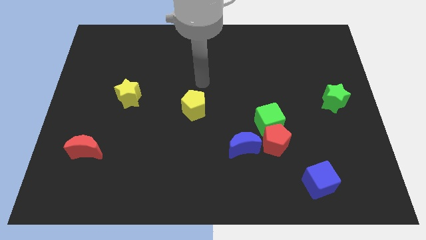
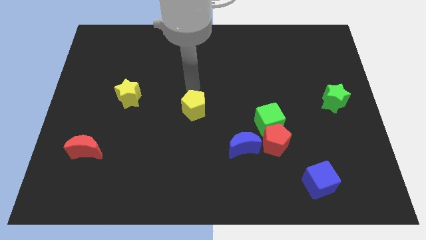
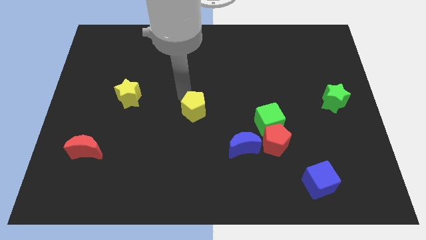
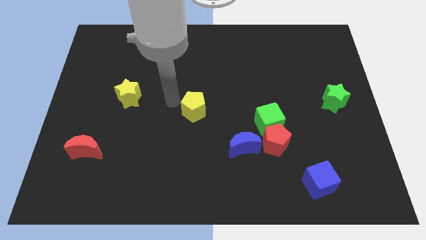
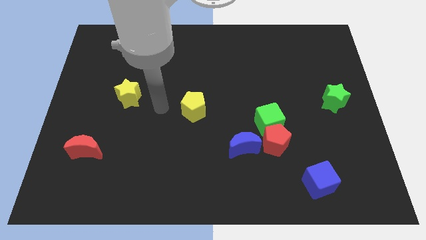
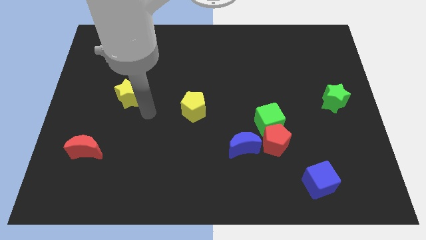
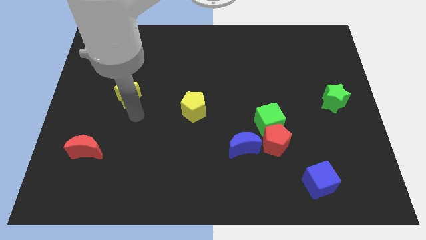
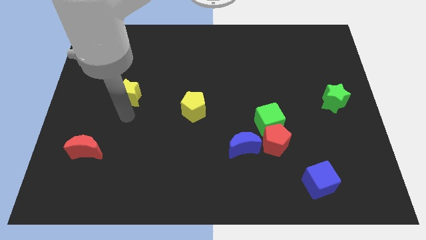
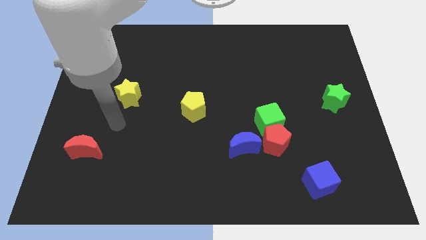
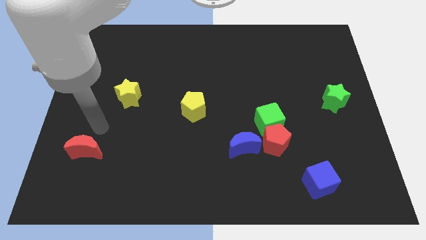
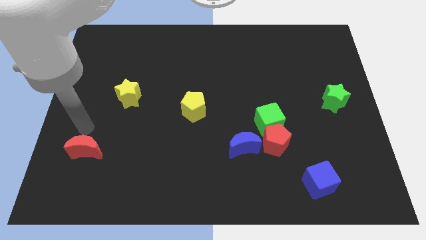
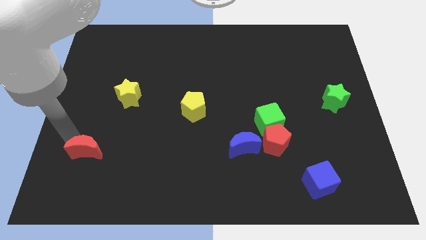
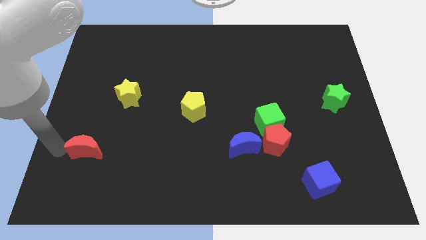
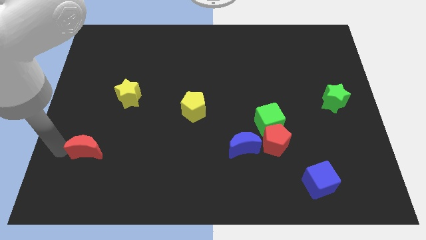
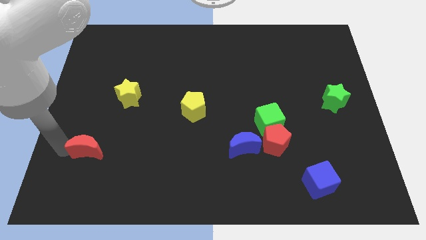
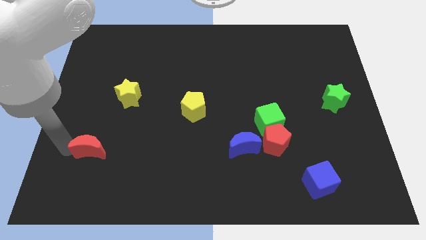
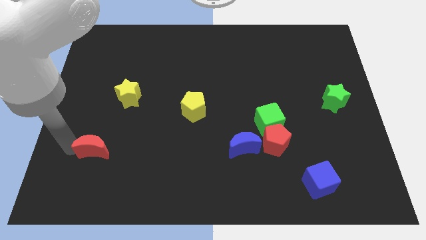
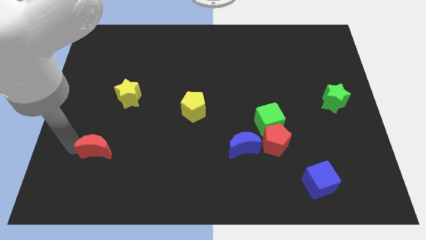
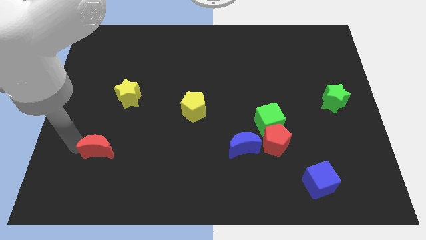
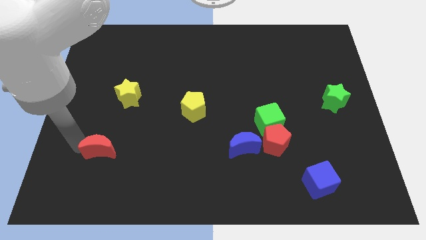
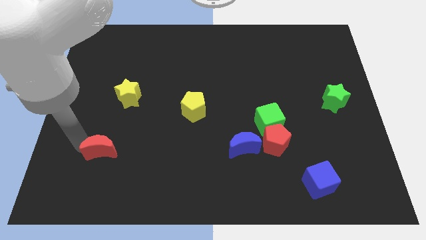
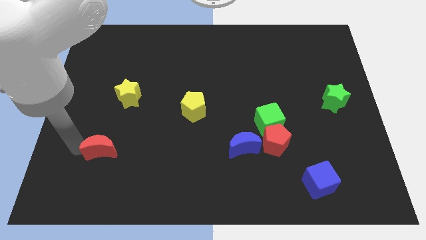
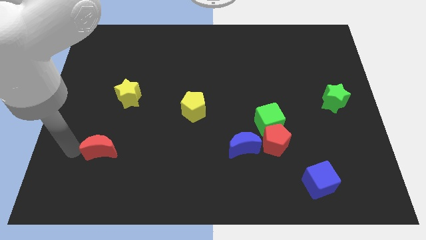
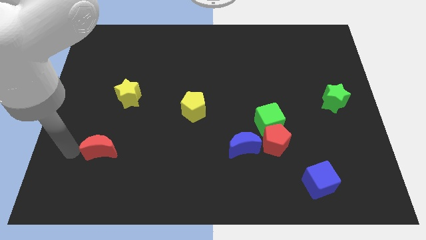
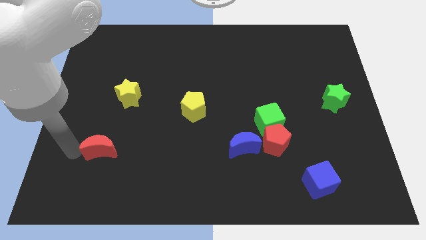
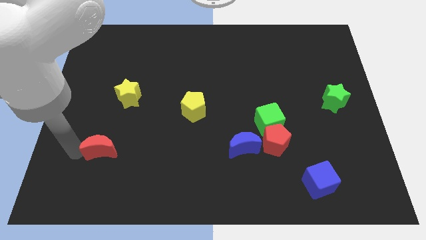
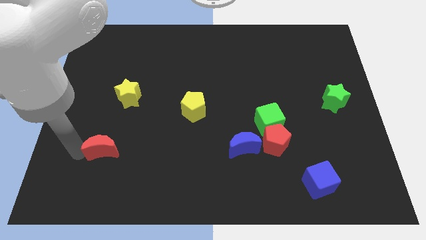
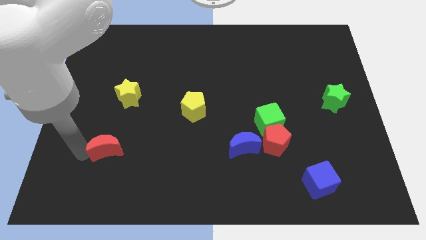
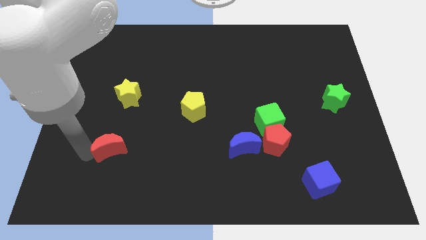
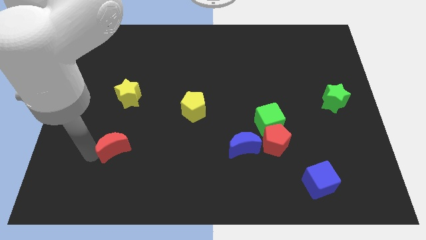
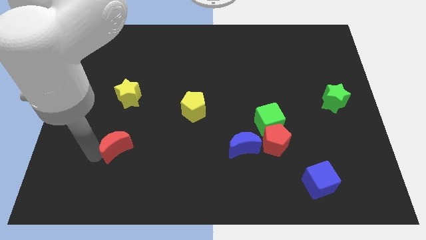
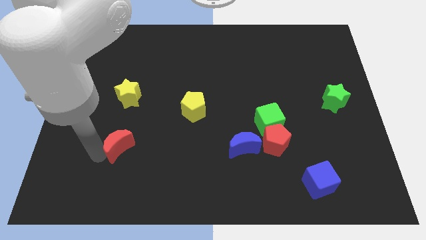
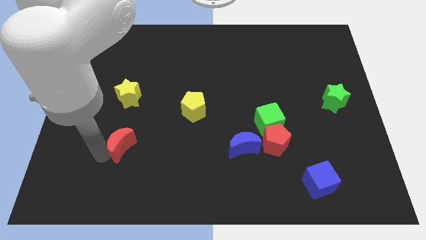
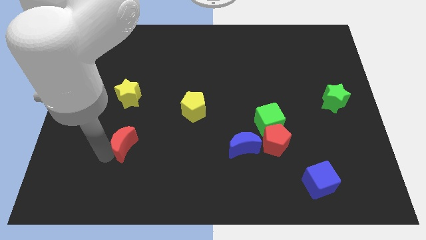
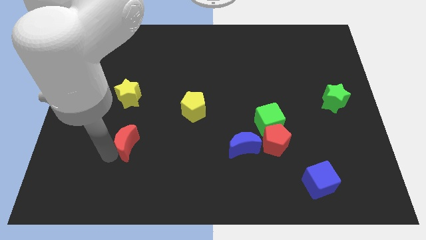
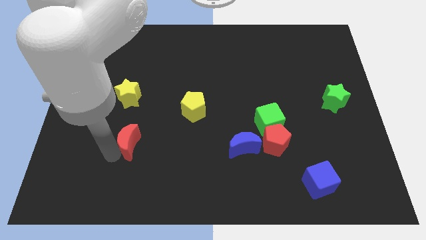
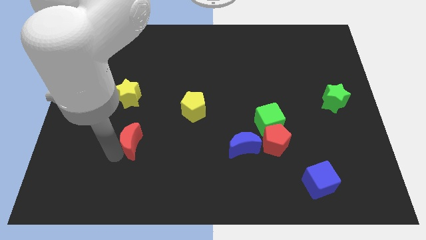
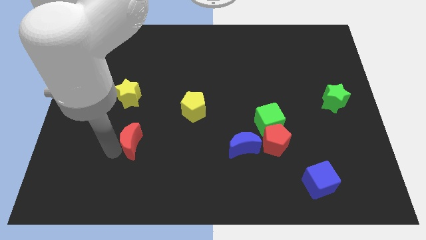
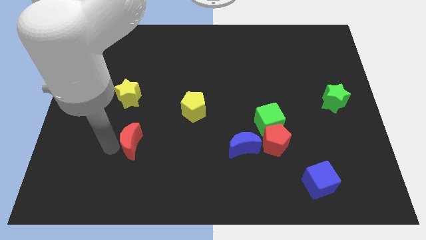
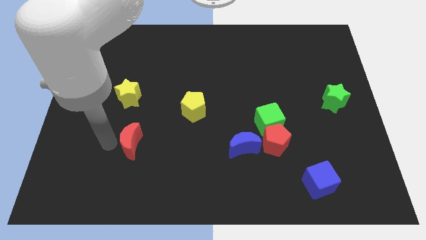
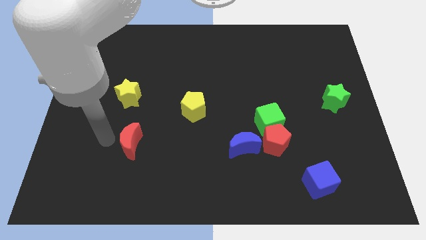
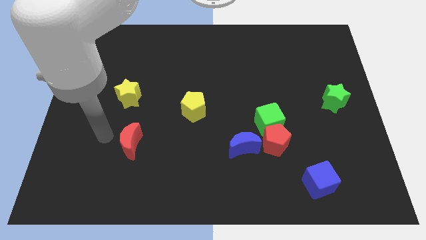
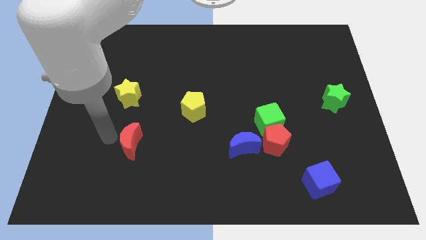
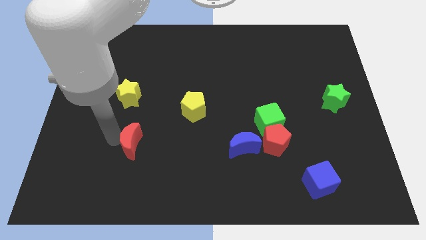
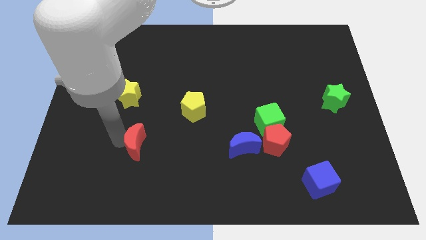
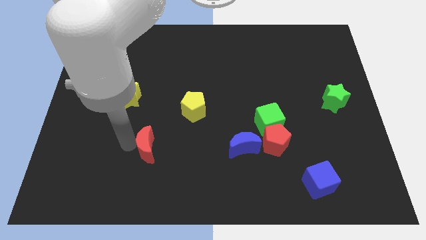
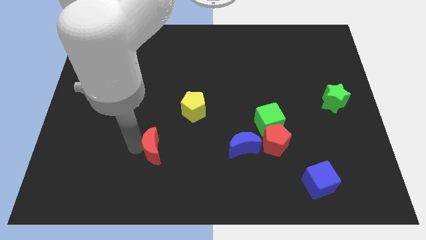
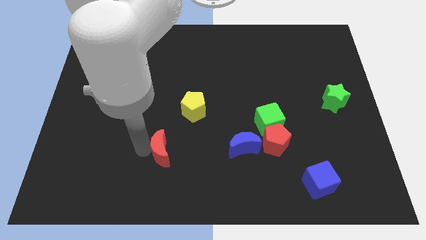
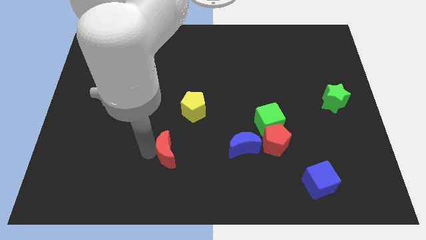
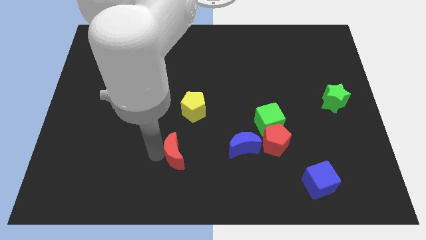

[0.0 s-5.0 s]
push the red moon left of the blue moon

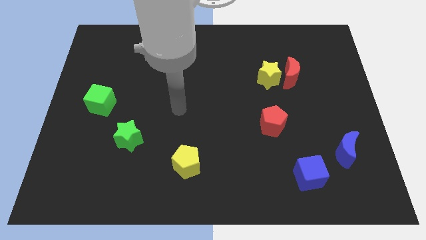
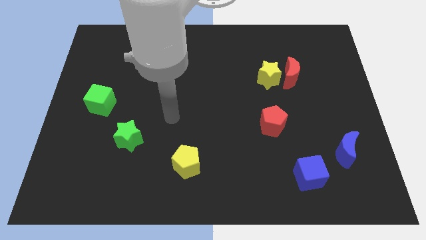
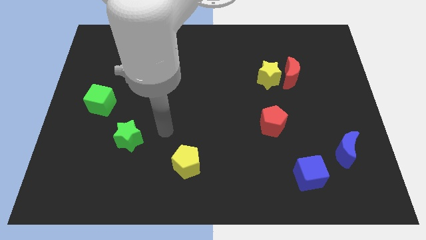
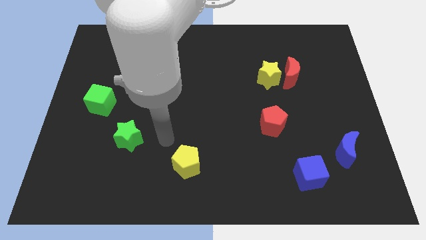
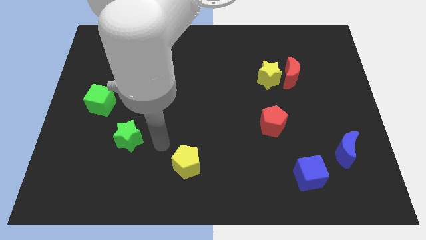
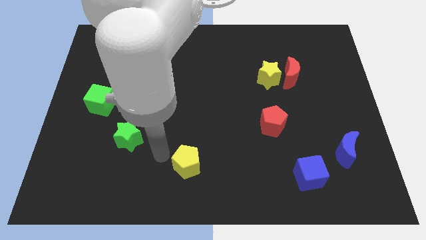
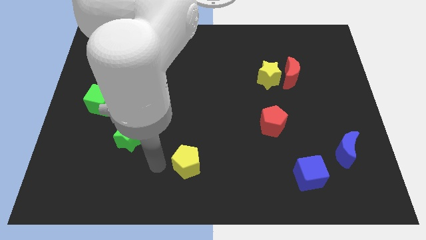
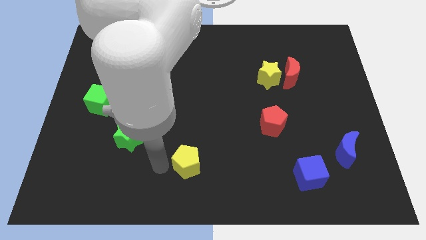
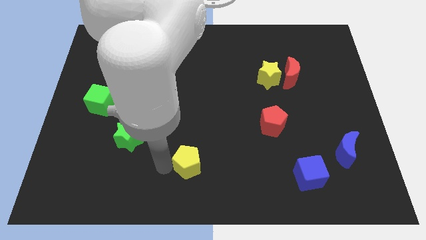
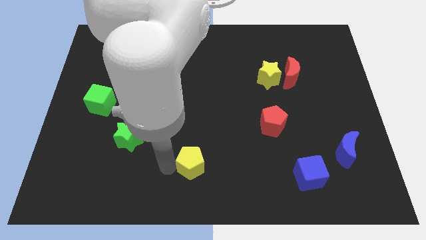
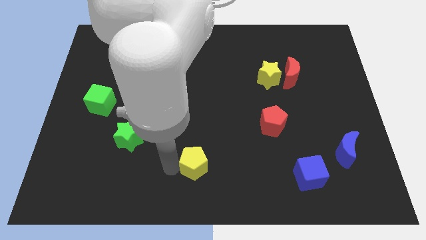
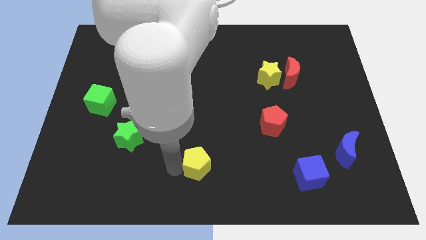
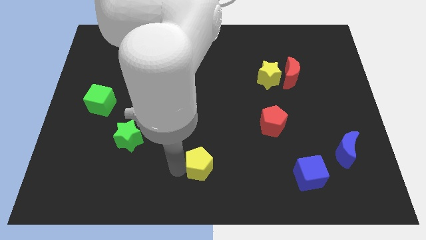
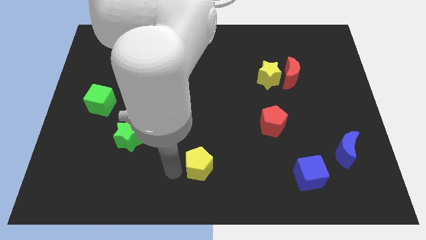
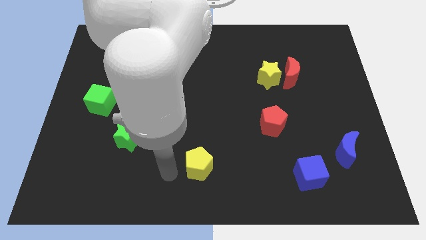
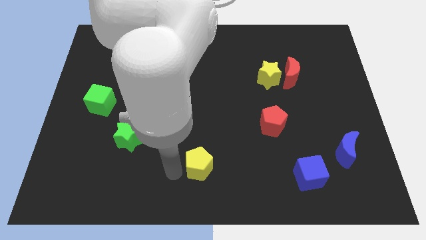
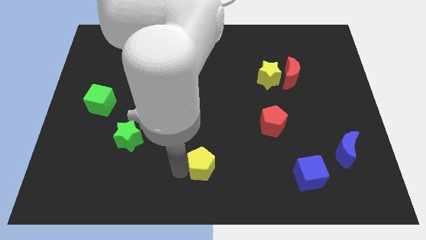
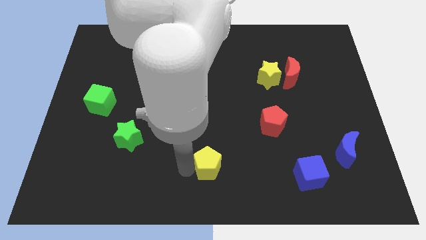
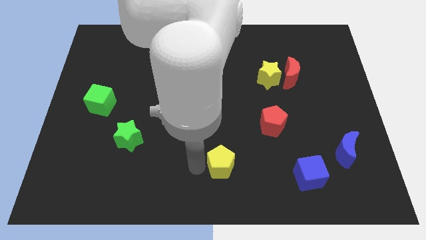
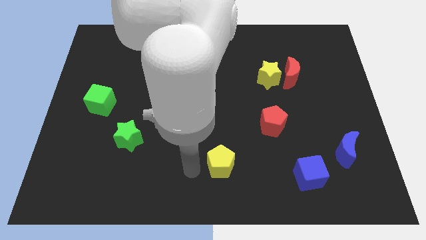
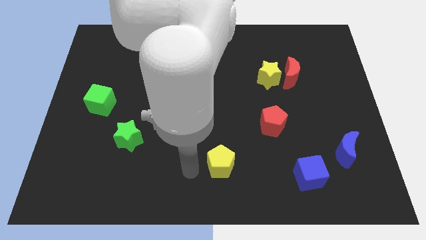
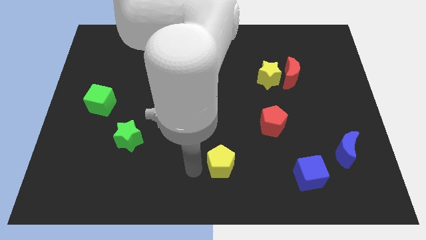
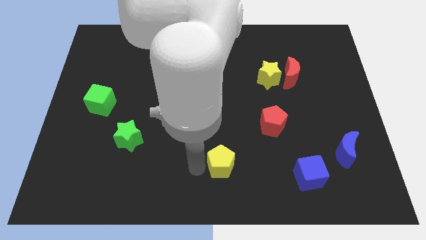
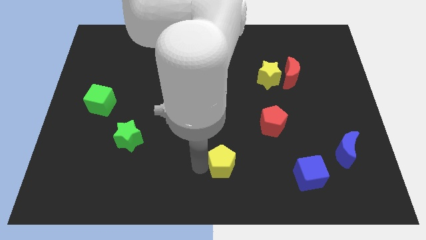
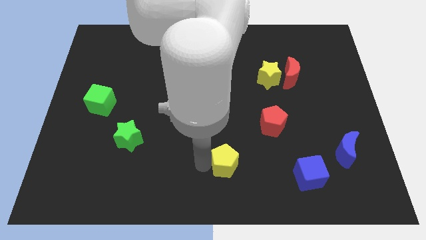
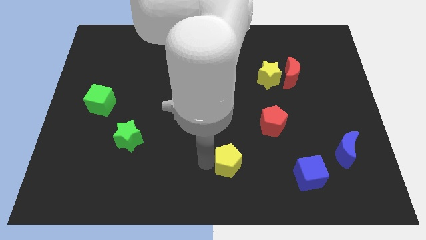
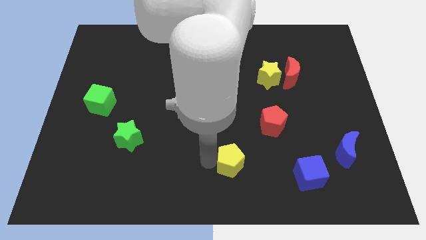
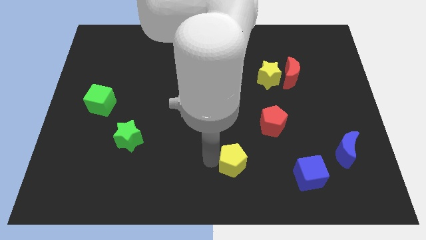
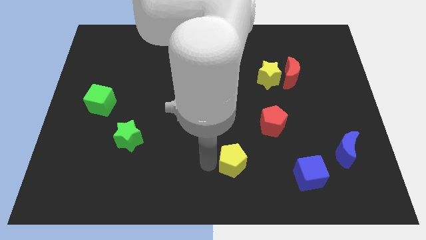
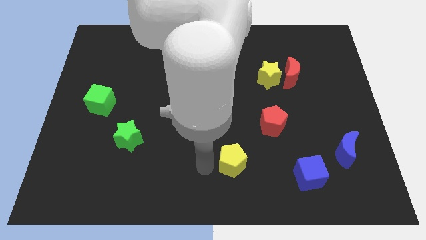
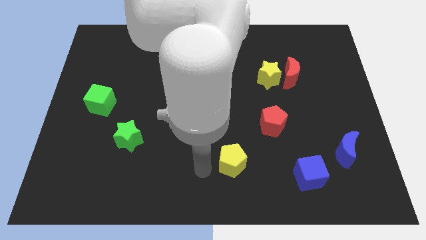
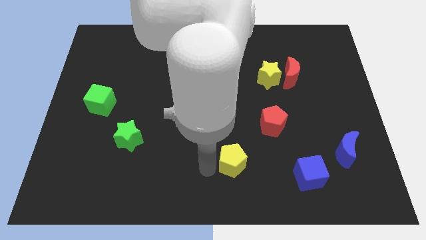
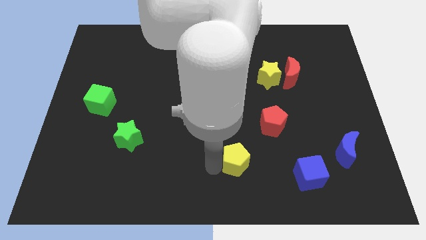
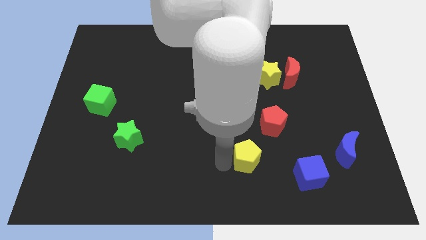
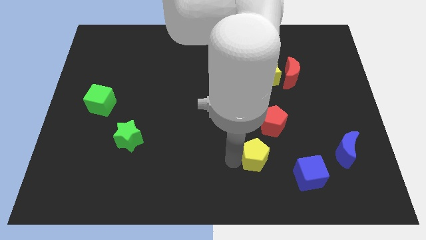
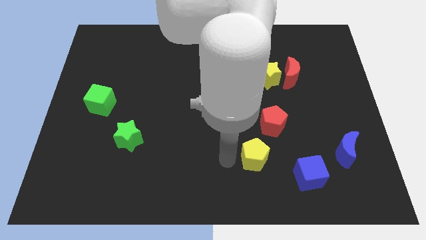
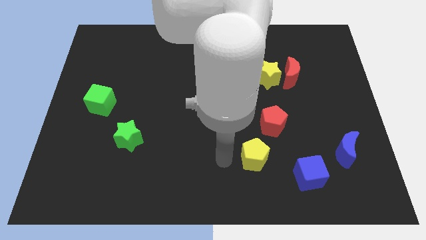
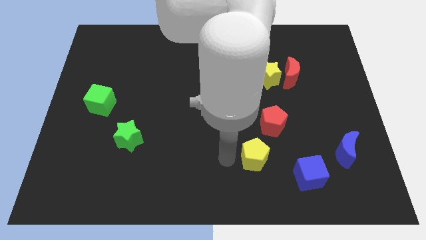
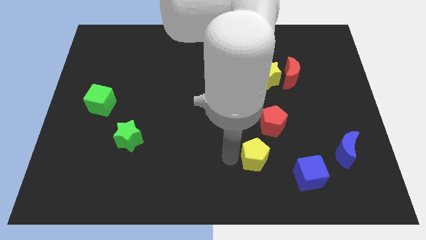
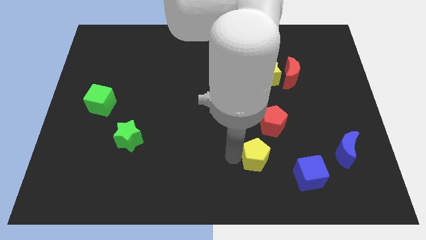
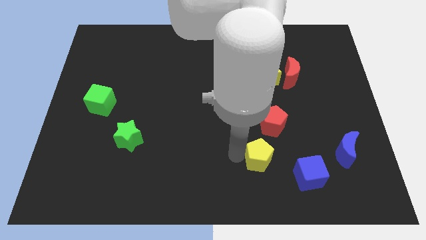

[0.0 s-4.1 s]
put the yellow pentagon to the top left side of the blue cube
